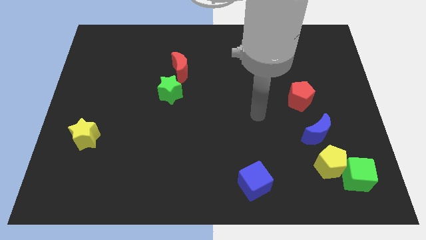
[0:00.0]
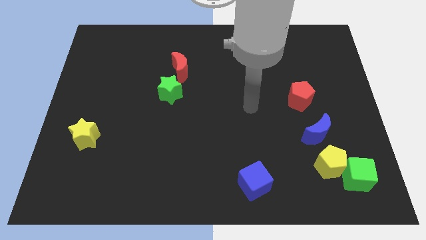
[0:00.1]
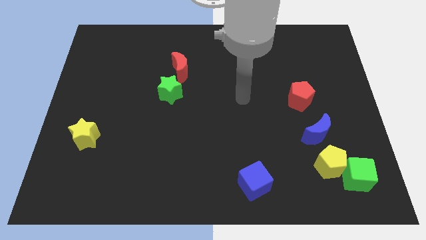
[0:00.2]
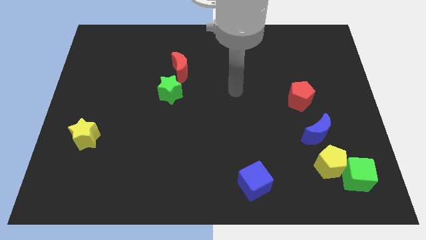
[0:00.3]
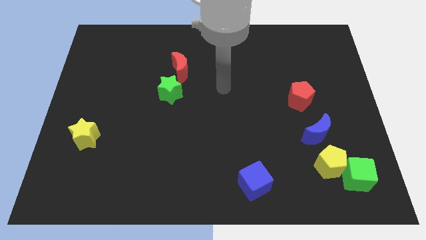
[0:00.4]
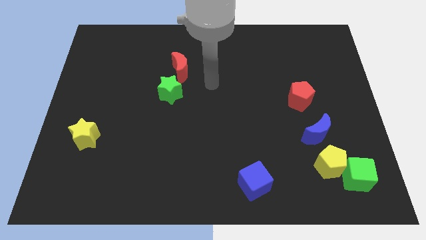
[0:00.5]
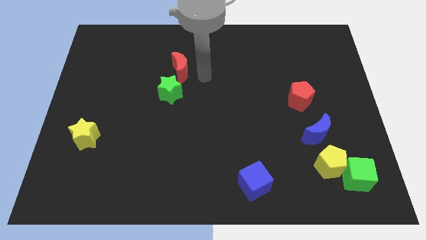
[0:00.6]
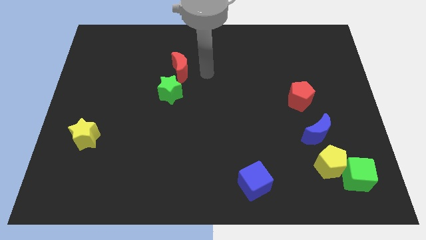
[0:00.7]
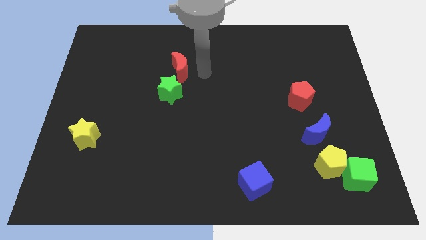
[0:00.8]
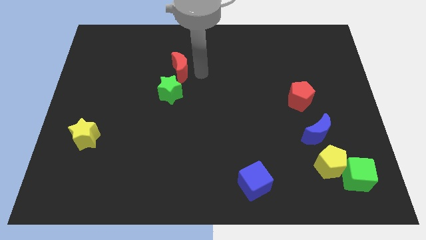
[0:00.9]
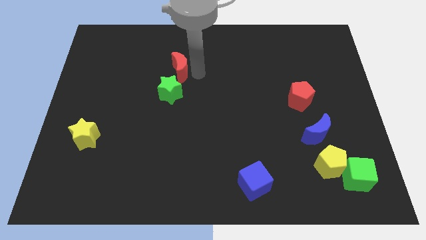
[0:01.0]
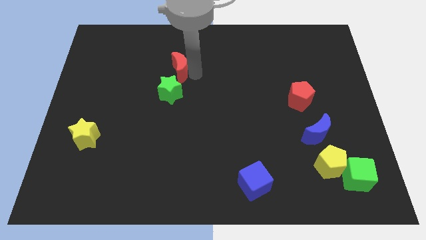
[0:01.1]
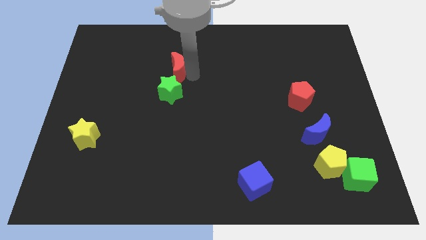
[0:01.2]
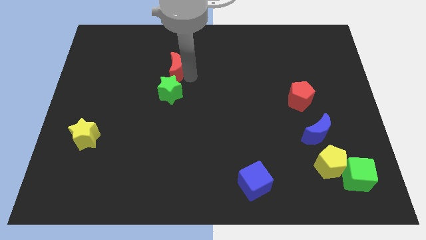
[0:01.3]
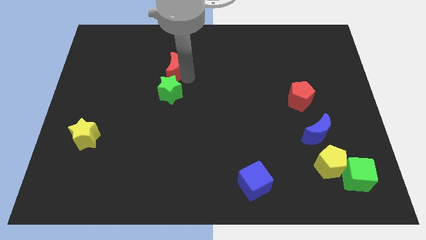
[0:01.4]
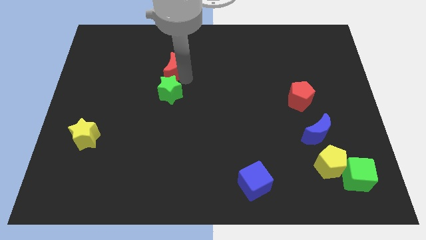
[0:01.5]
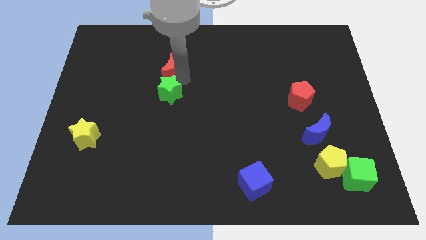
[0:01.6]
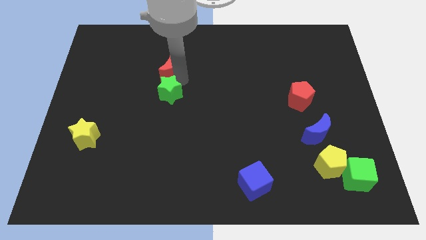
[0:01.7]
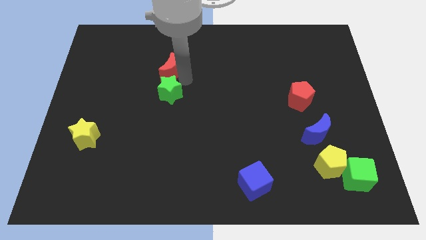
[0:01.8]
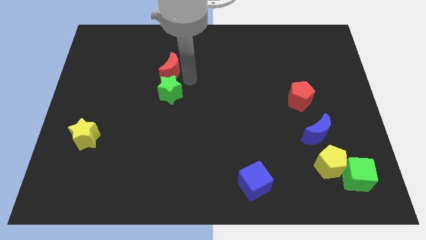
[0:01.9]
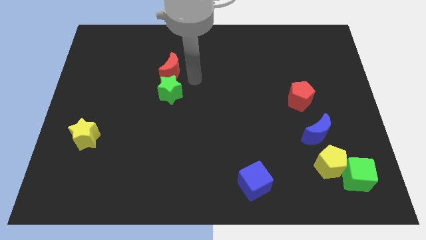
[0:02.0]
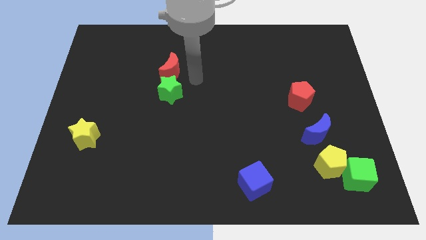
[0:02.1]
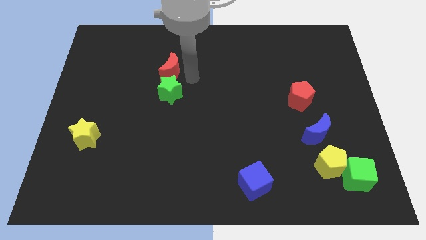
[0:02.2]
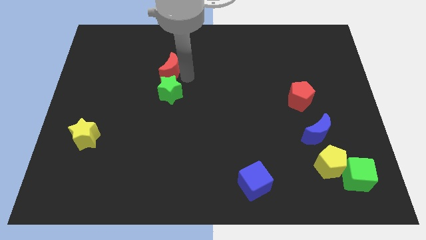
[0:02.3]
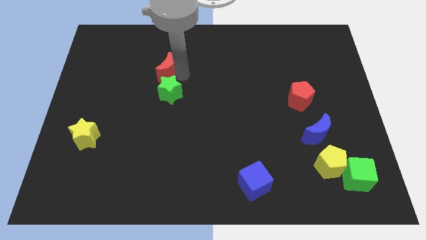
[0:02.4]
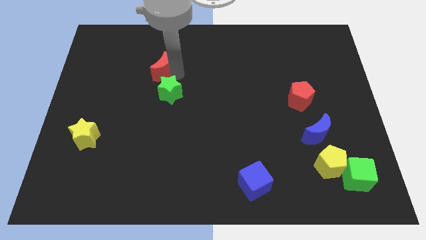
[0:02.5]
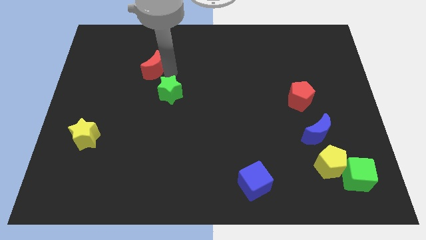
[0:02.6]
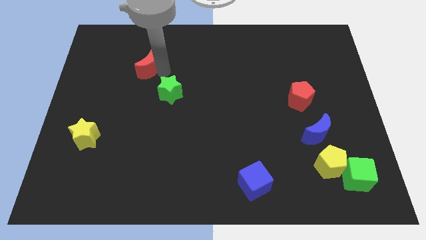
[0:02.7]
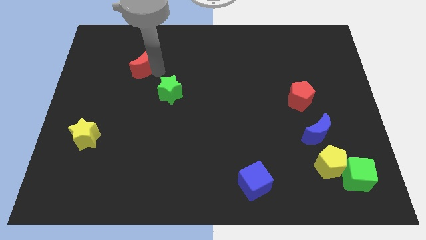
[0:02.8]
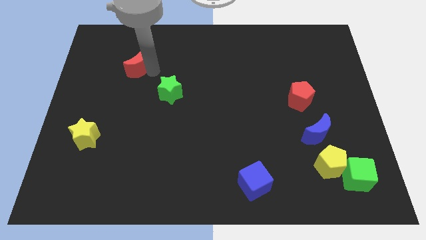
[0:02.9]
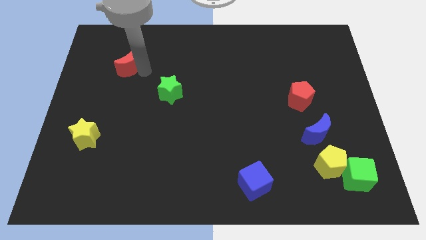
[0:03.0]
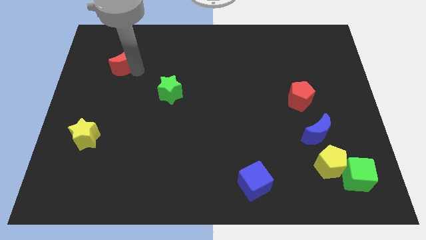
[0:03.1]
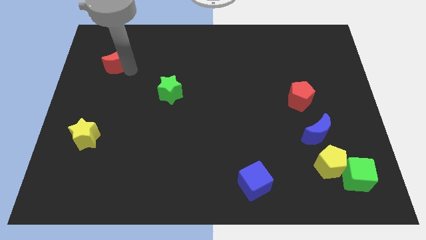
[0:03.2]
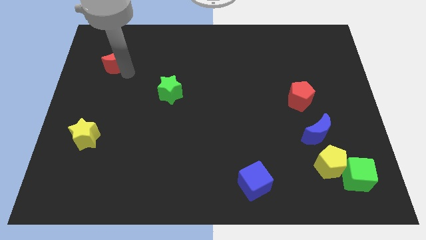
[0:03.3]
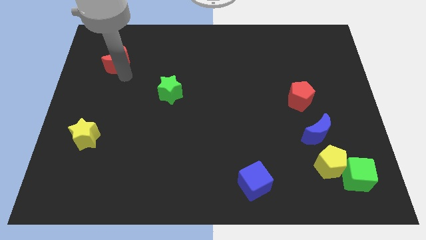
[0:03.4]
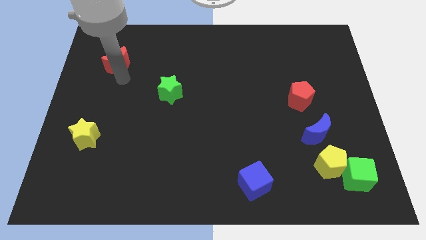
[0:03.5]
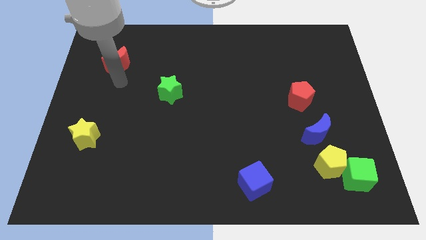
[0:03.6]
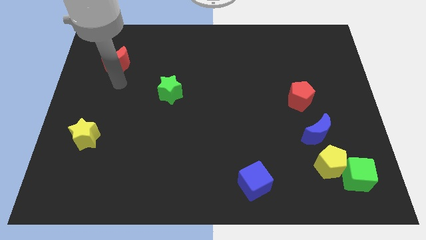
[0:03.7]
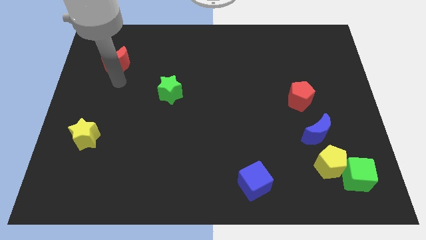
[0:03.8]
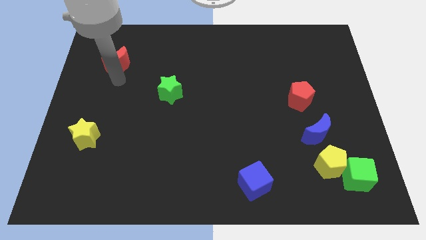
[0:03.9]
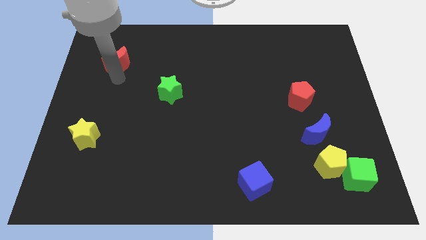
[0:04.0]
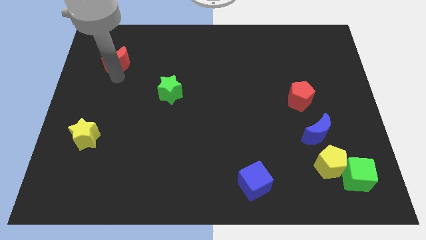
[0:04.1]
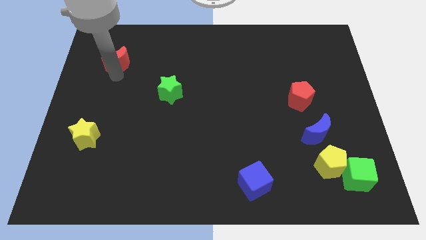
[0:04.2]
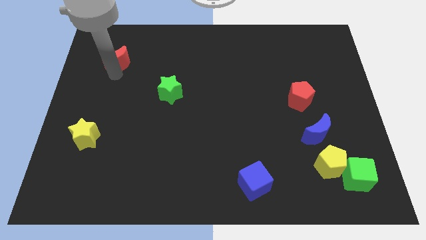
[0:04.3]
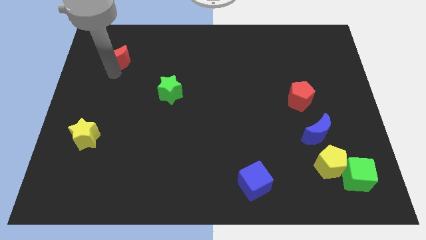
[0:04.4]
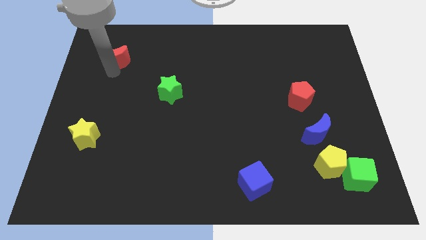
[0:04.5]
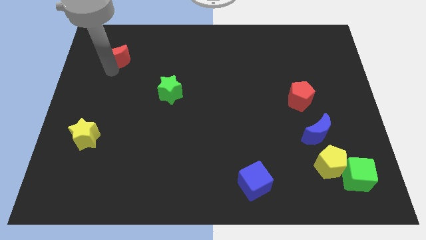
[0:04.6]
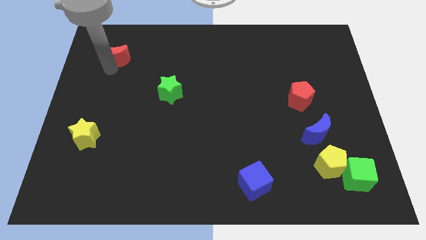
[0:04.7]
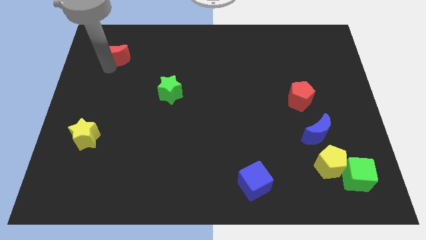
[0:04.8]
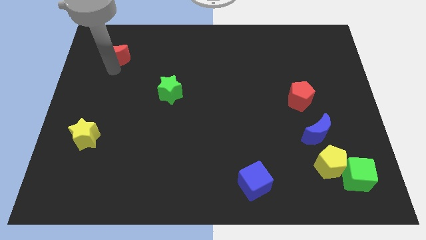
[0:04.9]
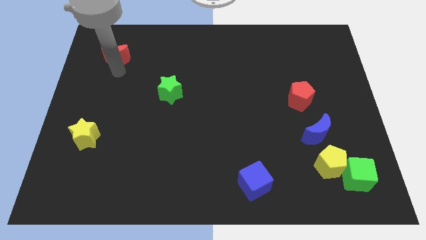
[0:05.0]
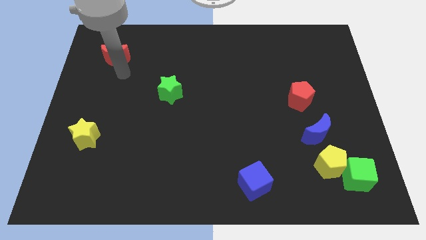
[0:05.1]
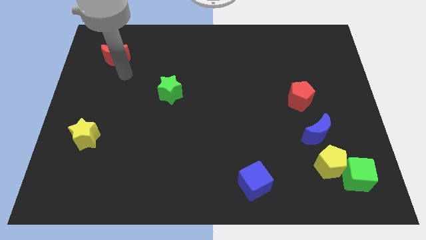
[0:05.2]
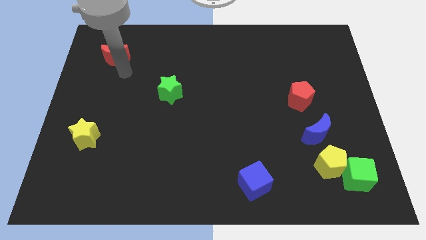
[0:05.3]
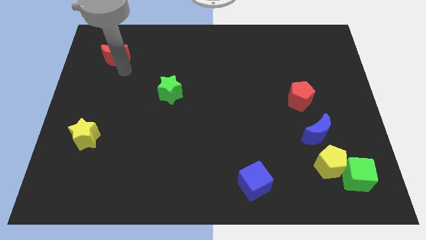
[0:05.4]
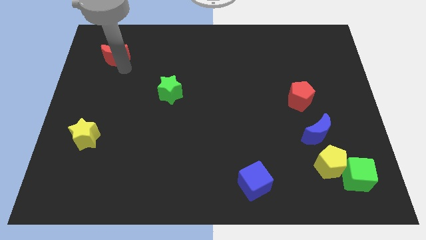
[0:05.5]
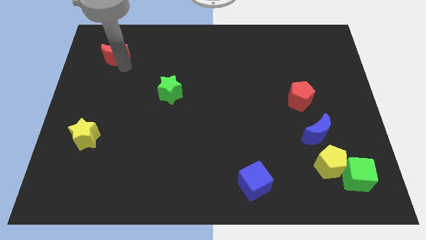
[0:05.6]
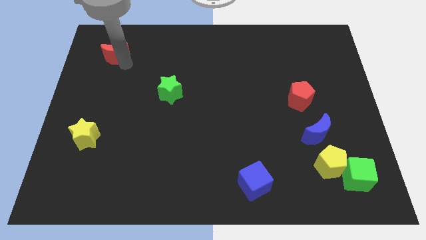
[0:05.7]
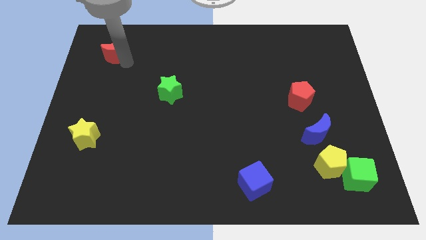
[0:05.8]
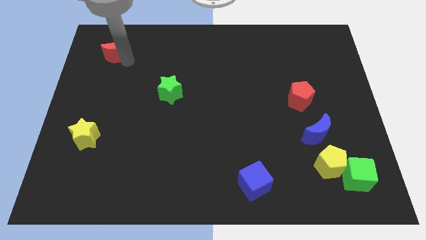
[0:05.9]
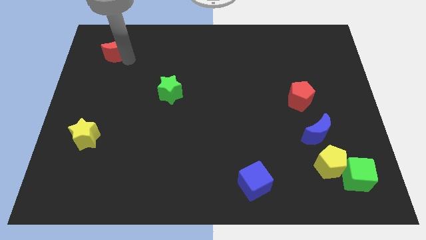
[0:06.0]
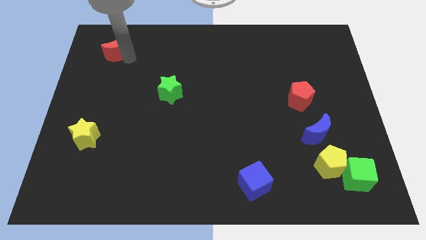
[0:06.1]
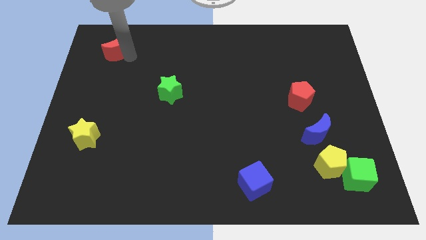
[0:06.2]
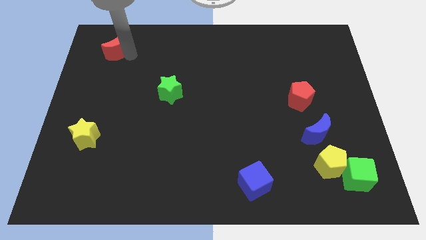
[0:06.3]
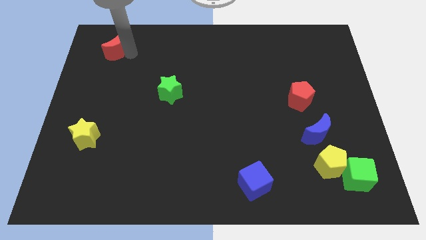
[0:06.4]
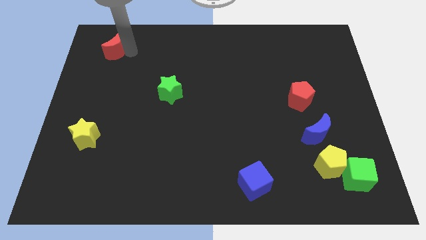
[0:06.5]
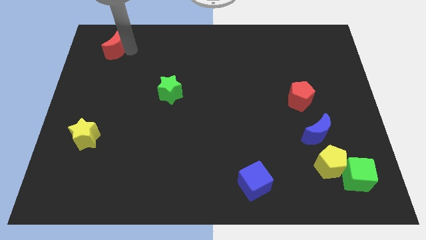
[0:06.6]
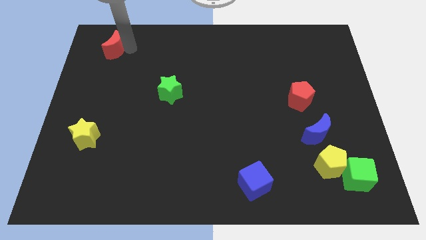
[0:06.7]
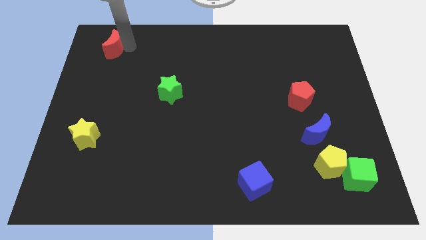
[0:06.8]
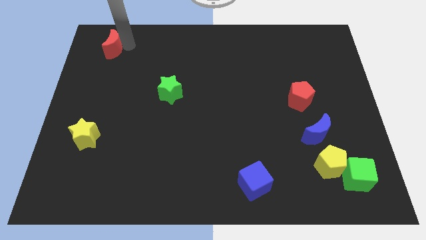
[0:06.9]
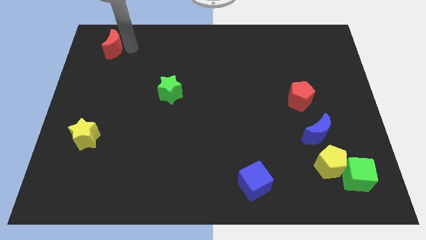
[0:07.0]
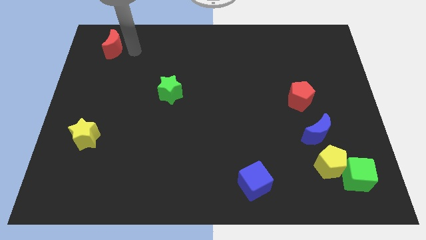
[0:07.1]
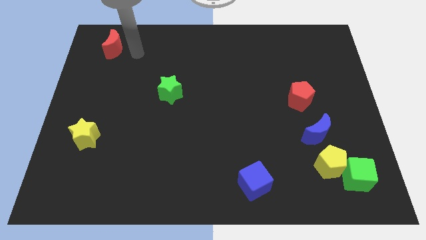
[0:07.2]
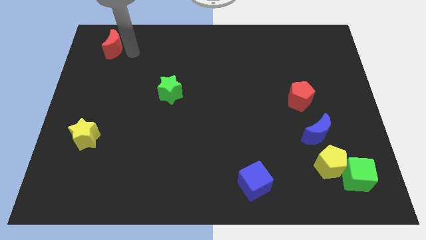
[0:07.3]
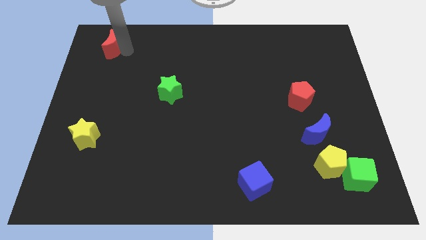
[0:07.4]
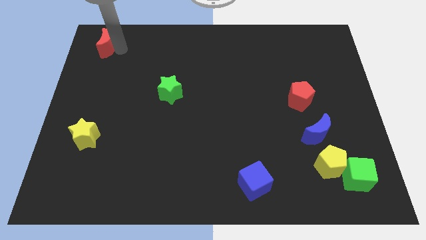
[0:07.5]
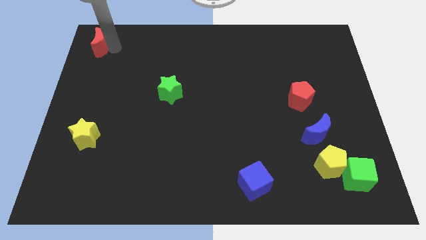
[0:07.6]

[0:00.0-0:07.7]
push the red moon to the top left of the board
